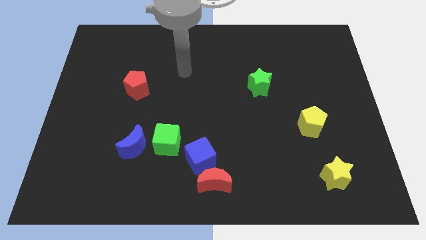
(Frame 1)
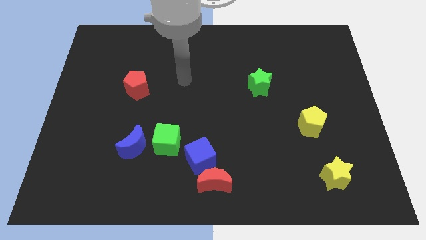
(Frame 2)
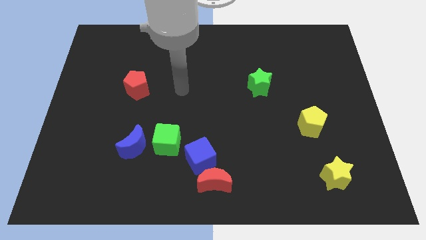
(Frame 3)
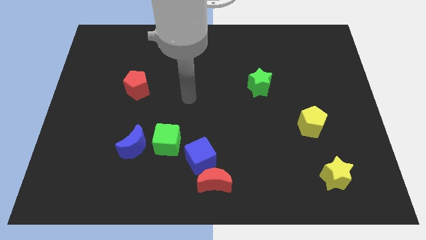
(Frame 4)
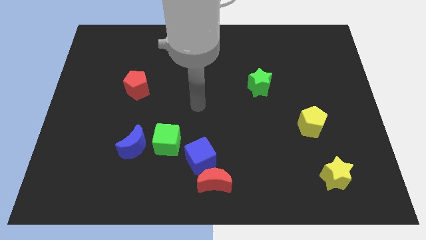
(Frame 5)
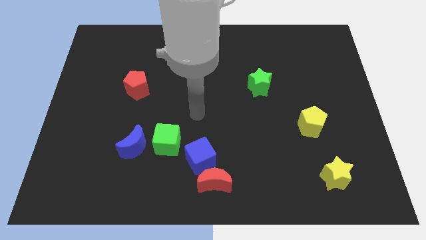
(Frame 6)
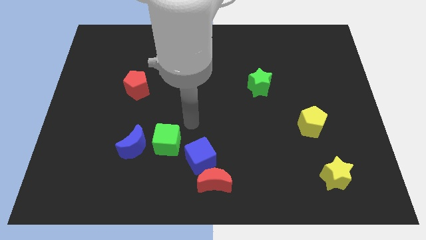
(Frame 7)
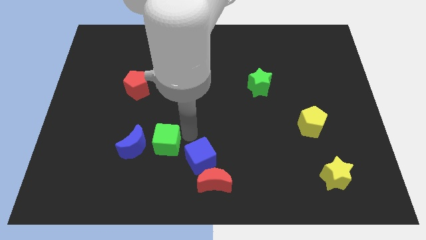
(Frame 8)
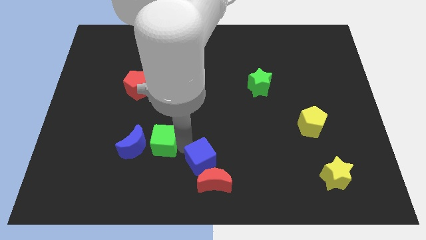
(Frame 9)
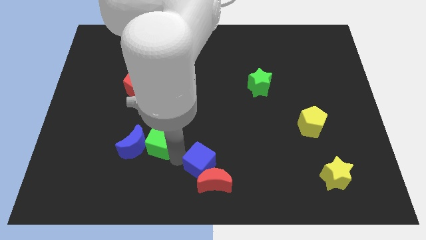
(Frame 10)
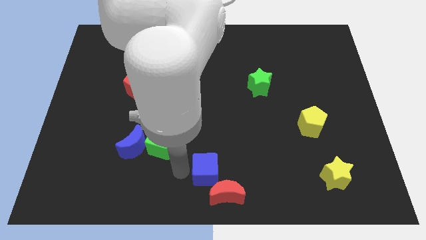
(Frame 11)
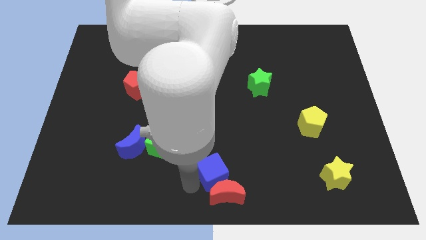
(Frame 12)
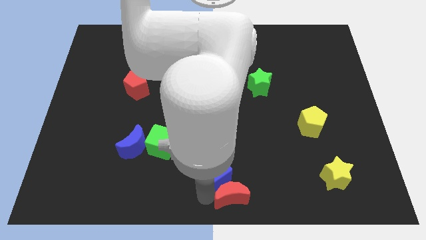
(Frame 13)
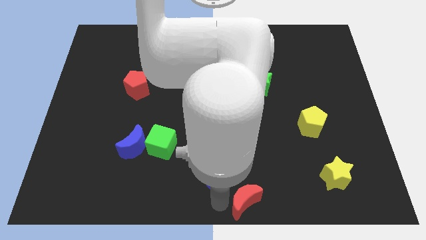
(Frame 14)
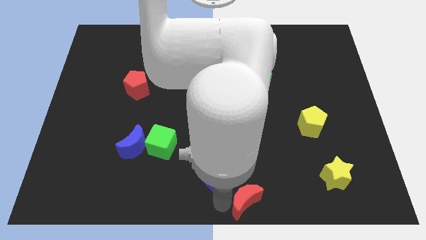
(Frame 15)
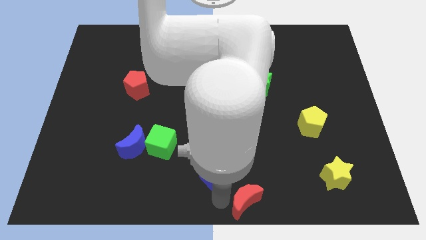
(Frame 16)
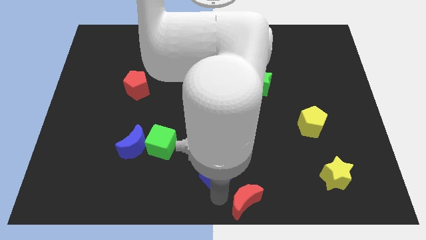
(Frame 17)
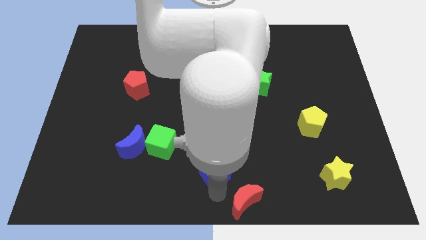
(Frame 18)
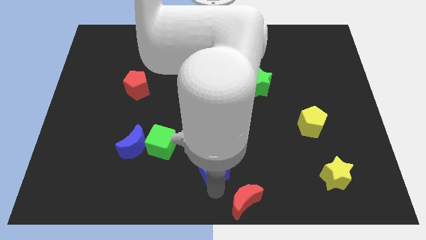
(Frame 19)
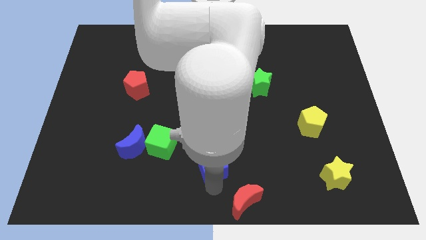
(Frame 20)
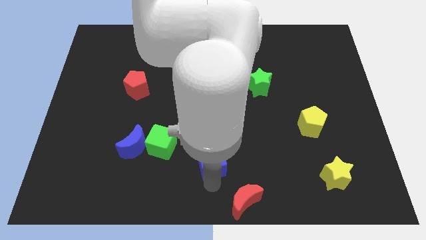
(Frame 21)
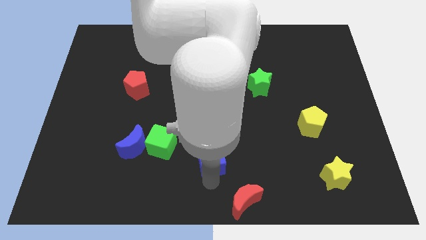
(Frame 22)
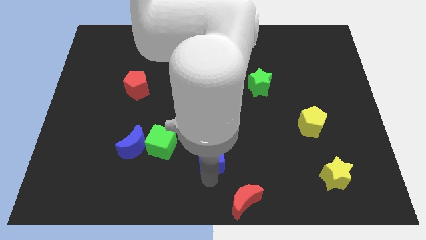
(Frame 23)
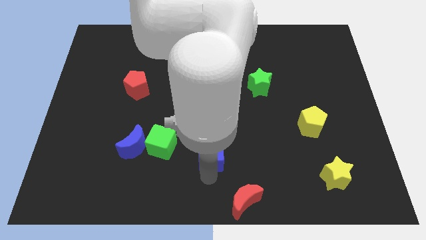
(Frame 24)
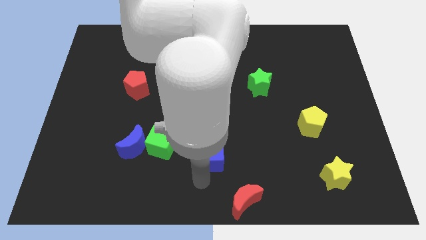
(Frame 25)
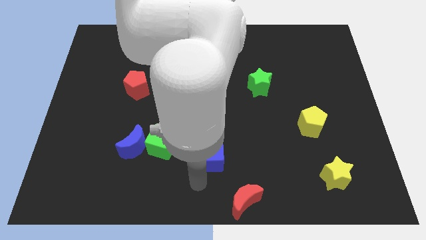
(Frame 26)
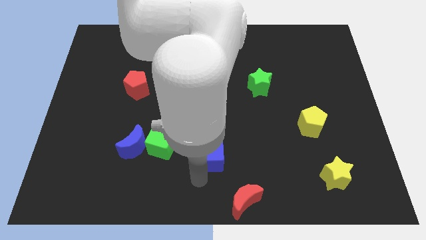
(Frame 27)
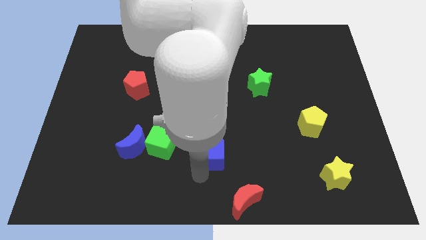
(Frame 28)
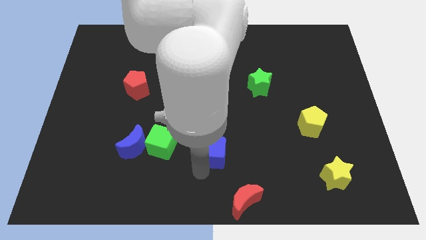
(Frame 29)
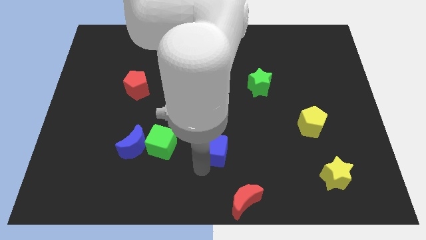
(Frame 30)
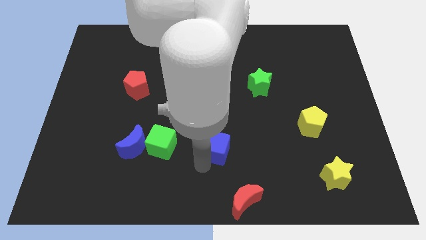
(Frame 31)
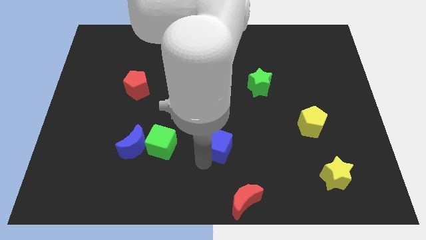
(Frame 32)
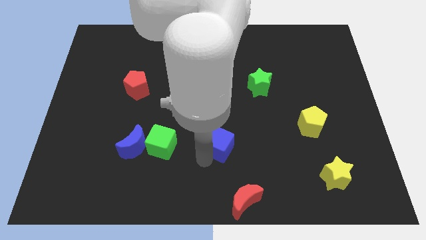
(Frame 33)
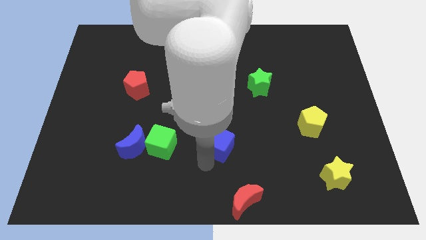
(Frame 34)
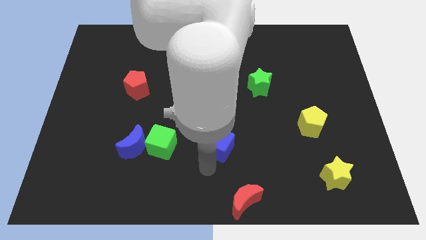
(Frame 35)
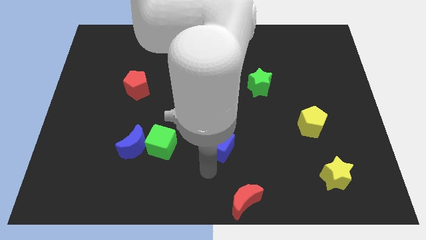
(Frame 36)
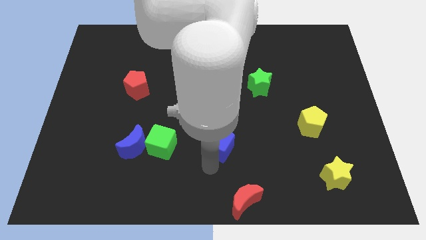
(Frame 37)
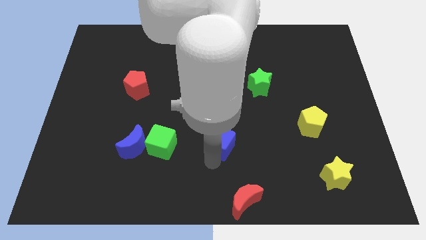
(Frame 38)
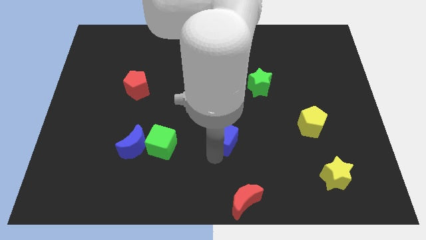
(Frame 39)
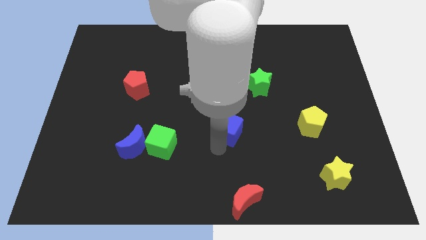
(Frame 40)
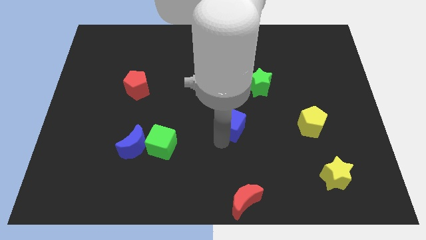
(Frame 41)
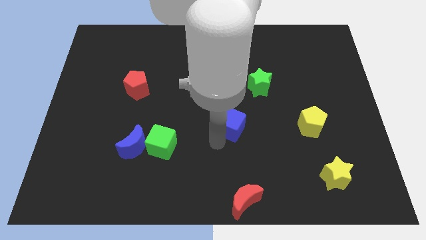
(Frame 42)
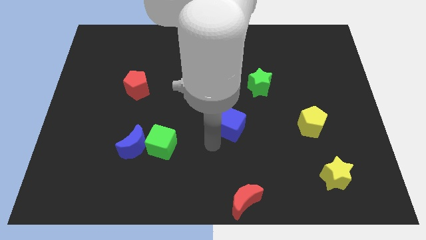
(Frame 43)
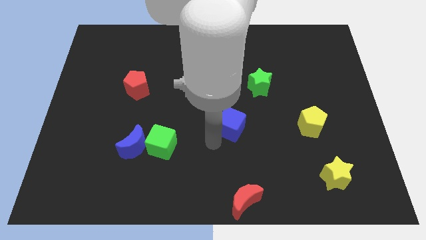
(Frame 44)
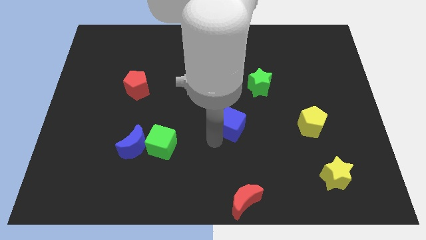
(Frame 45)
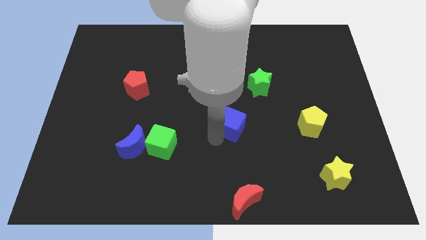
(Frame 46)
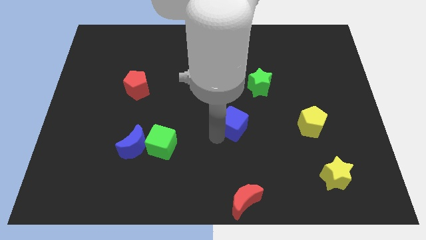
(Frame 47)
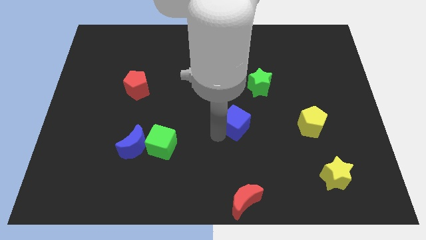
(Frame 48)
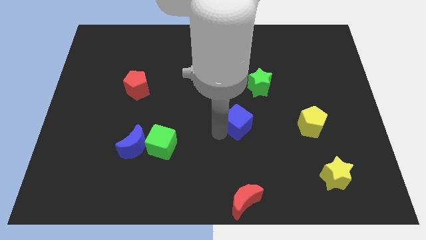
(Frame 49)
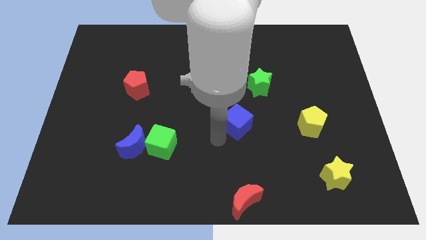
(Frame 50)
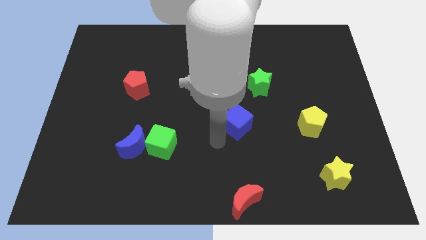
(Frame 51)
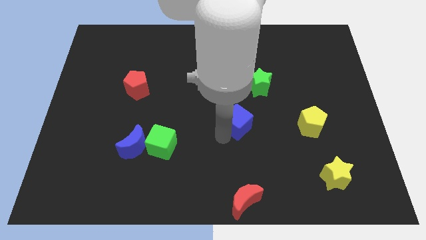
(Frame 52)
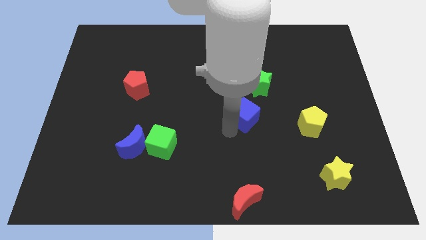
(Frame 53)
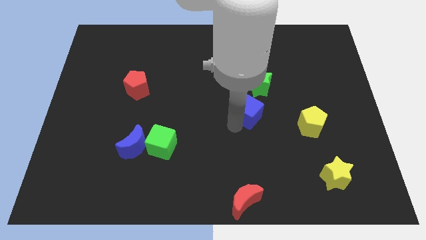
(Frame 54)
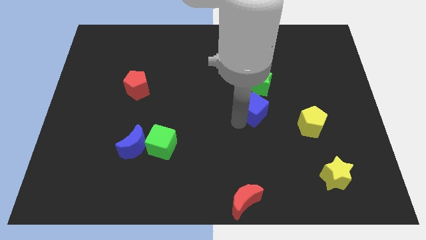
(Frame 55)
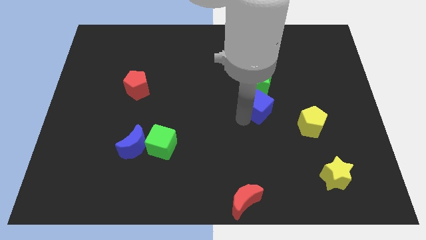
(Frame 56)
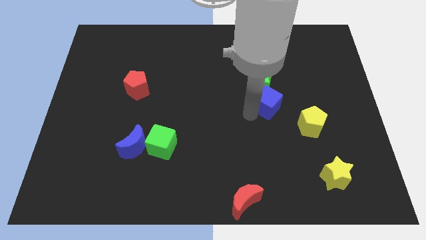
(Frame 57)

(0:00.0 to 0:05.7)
push the blue cube upwards and then right

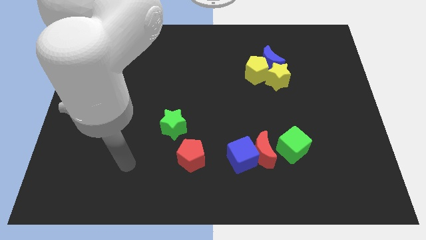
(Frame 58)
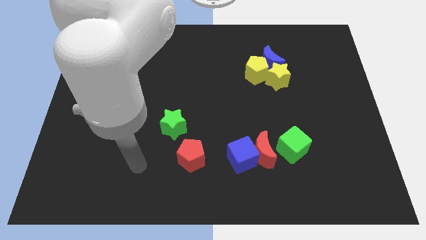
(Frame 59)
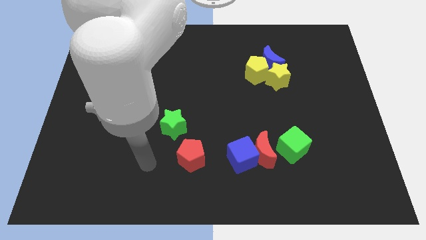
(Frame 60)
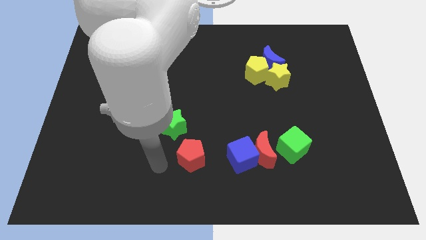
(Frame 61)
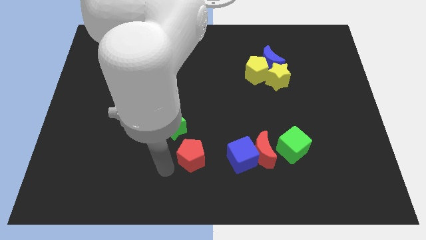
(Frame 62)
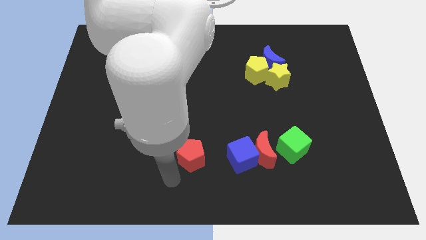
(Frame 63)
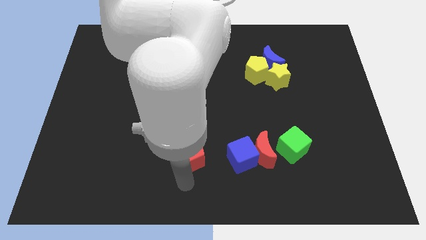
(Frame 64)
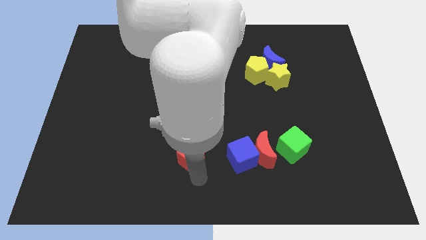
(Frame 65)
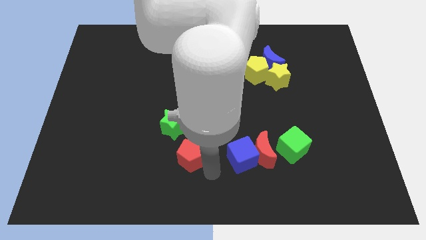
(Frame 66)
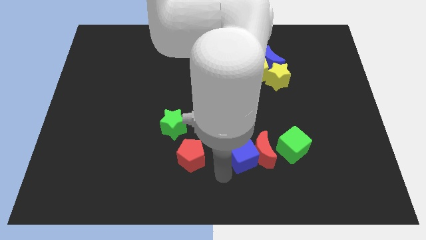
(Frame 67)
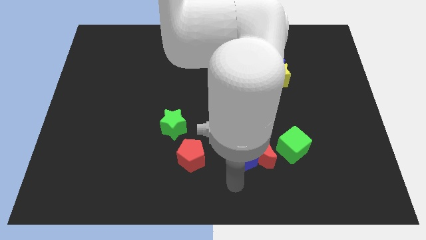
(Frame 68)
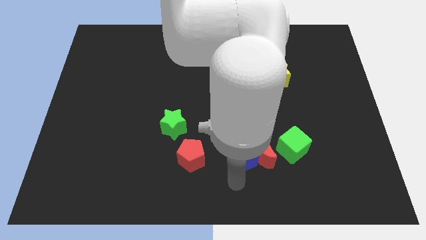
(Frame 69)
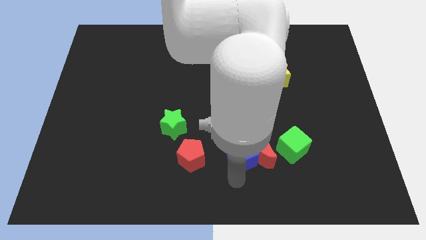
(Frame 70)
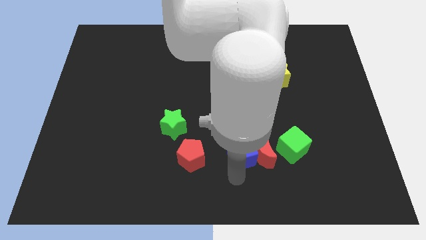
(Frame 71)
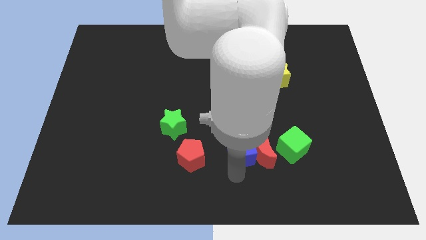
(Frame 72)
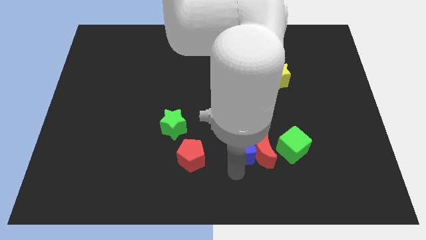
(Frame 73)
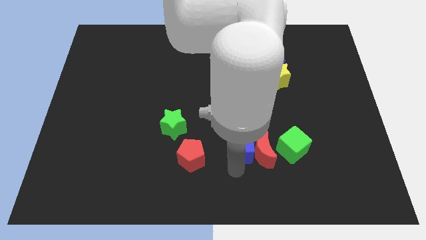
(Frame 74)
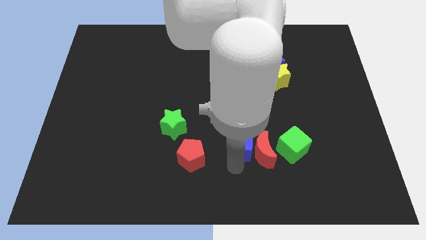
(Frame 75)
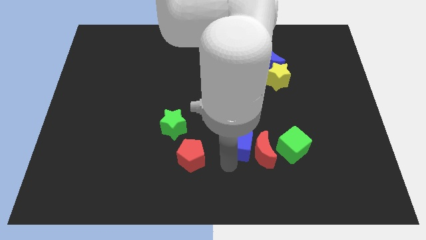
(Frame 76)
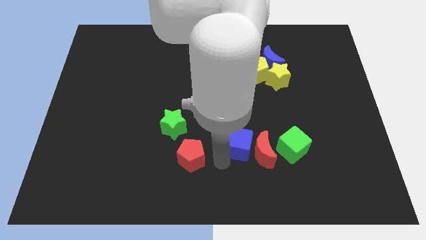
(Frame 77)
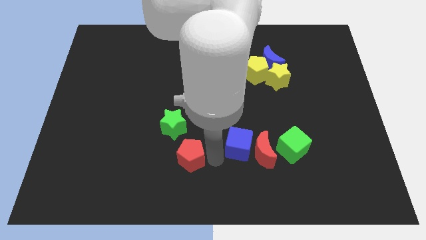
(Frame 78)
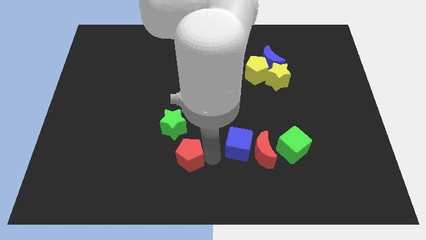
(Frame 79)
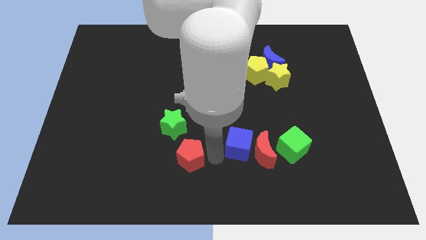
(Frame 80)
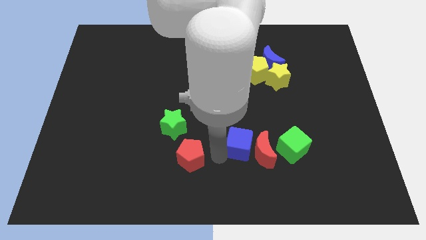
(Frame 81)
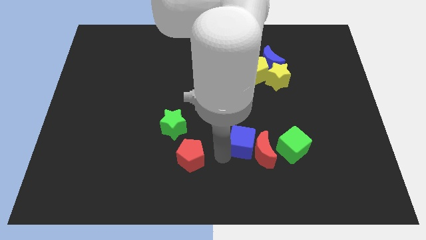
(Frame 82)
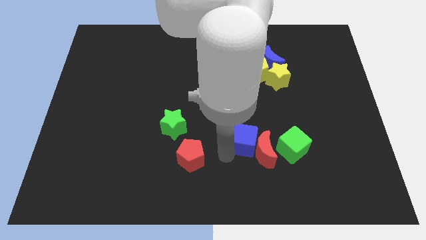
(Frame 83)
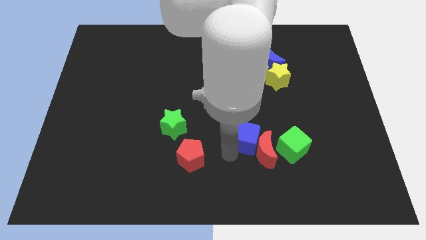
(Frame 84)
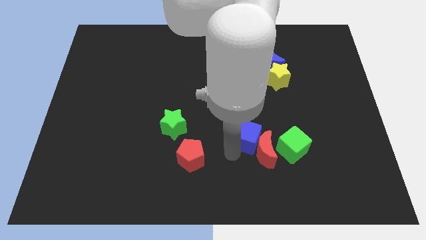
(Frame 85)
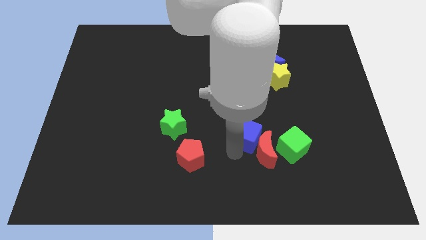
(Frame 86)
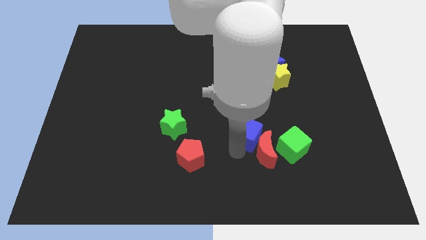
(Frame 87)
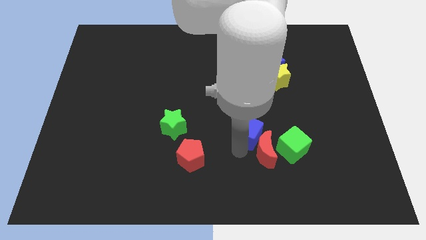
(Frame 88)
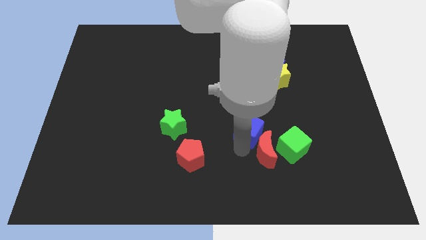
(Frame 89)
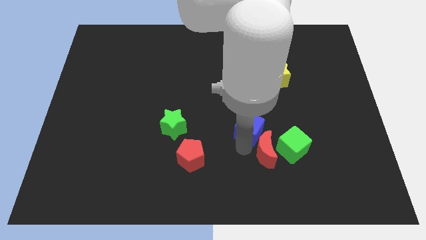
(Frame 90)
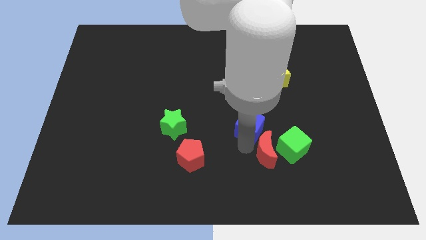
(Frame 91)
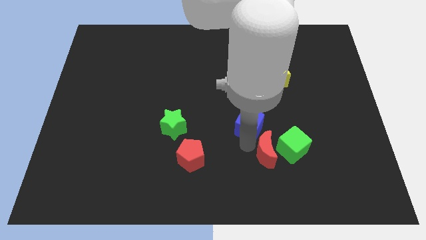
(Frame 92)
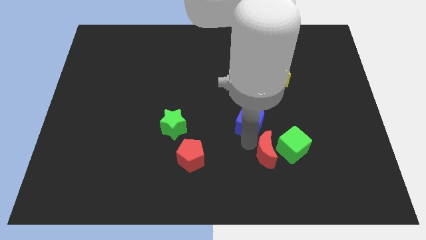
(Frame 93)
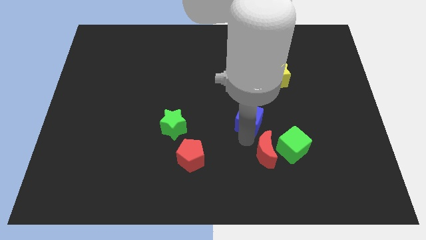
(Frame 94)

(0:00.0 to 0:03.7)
slide the blue cube a little upwards and right
